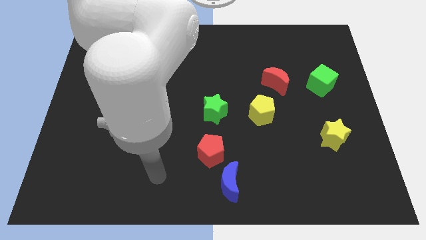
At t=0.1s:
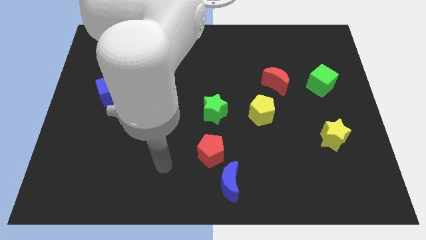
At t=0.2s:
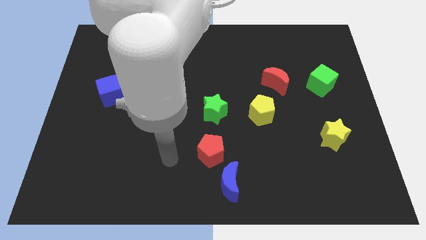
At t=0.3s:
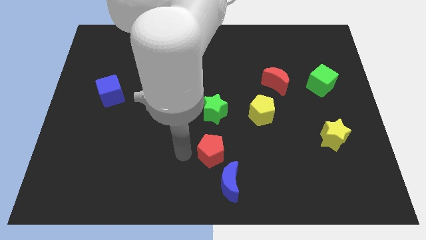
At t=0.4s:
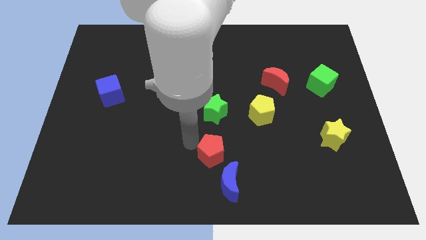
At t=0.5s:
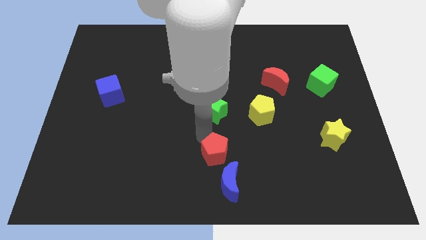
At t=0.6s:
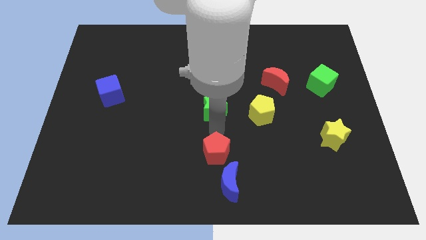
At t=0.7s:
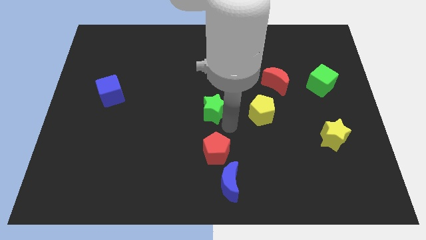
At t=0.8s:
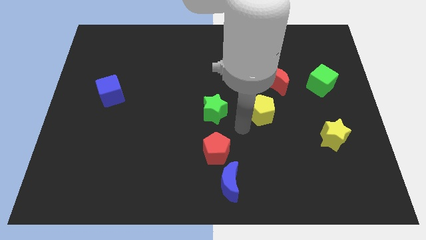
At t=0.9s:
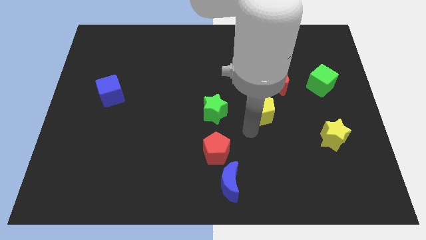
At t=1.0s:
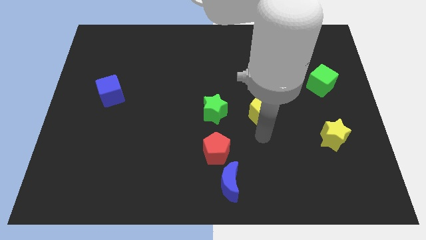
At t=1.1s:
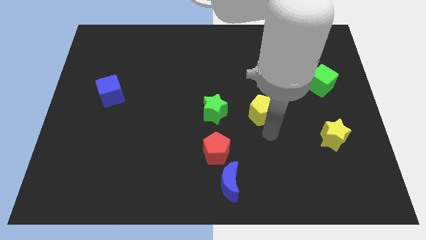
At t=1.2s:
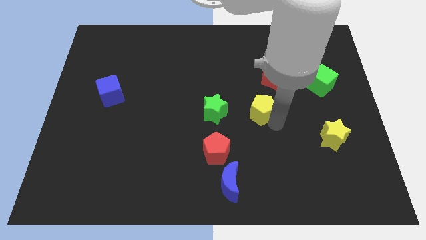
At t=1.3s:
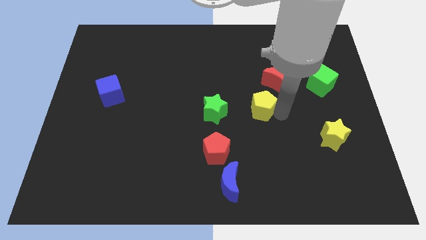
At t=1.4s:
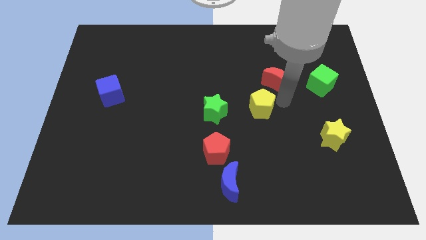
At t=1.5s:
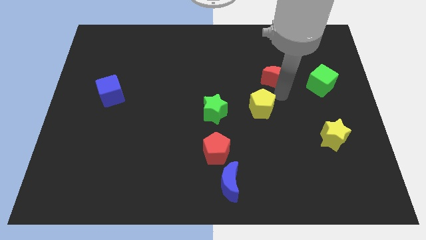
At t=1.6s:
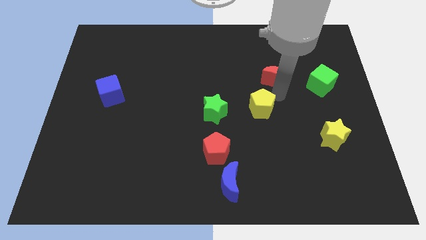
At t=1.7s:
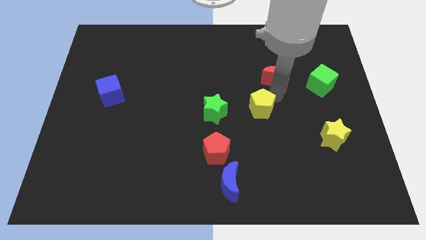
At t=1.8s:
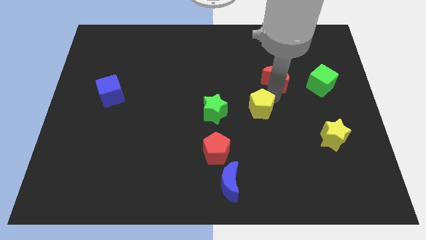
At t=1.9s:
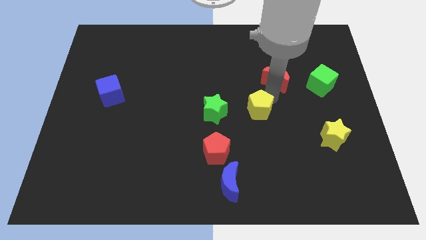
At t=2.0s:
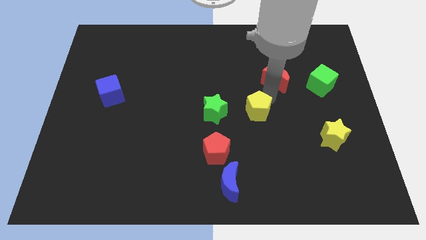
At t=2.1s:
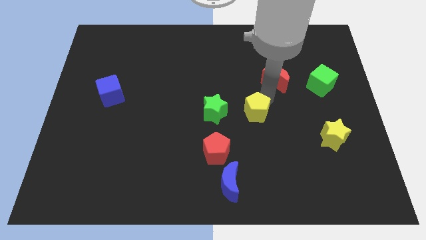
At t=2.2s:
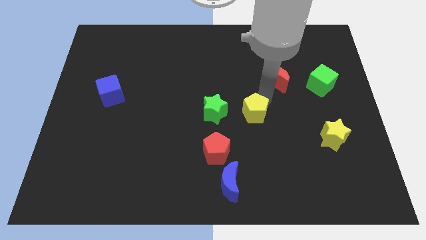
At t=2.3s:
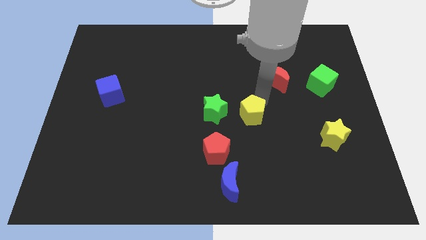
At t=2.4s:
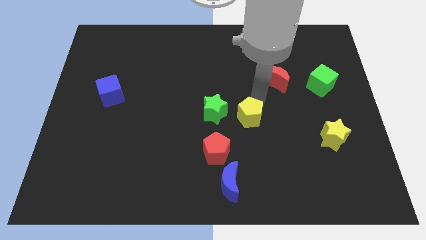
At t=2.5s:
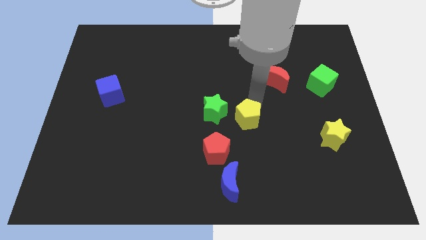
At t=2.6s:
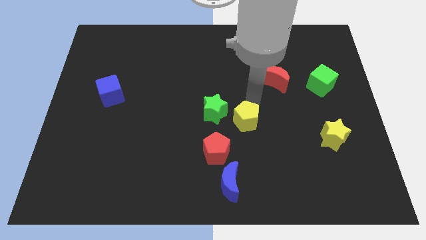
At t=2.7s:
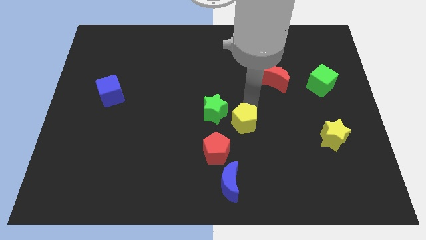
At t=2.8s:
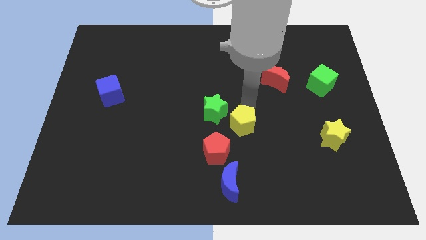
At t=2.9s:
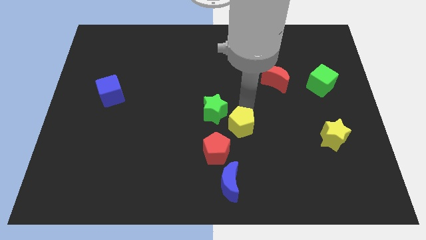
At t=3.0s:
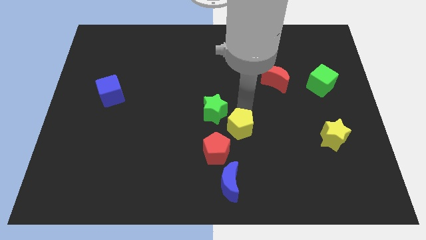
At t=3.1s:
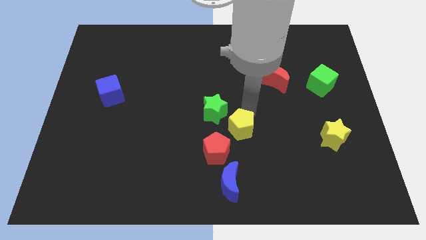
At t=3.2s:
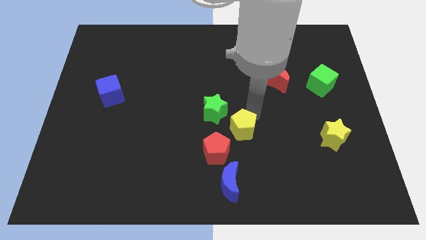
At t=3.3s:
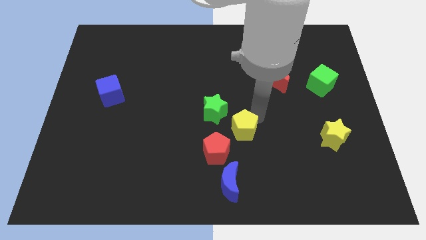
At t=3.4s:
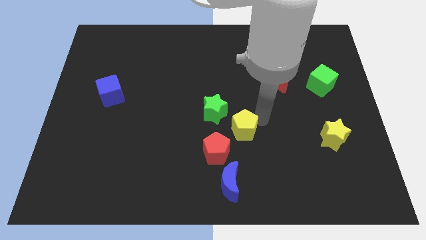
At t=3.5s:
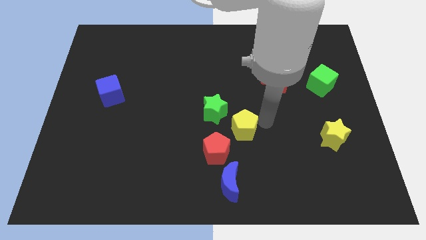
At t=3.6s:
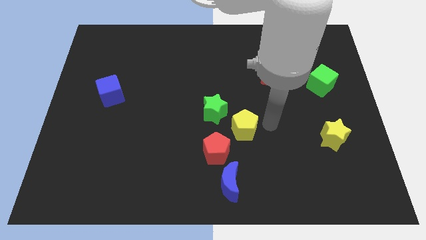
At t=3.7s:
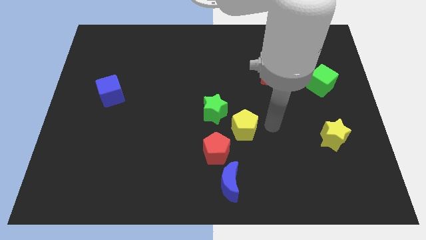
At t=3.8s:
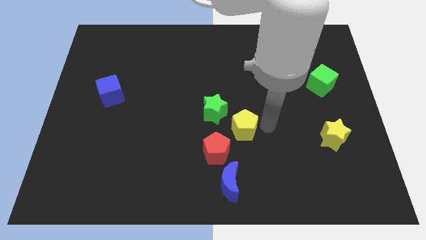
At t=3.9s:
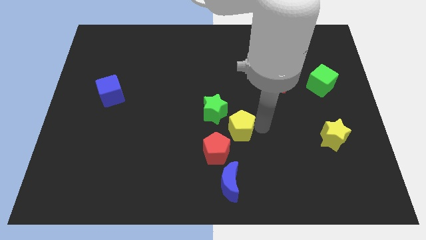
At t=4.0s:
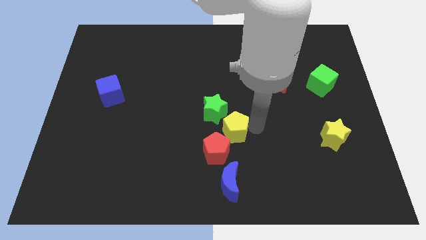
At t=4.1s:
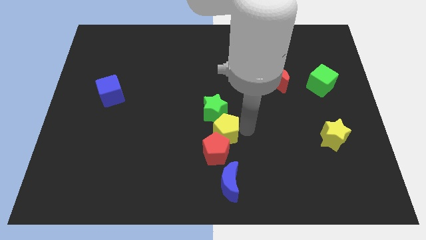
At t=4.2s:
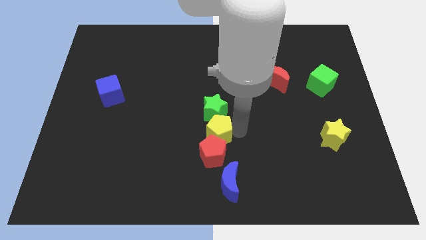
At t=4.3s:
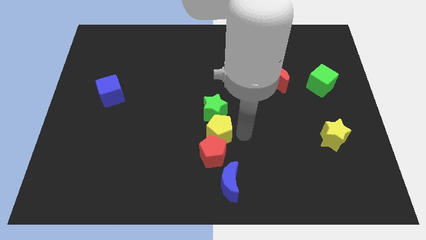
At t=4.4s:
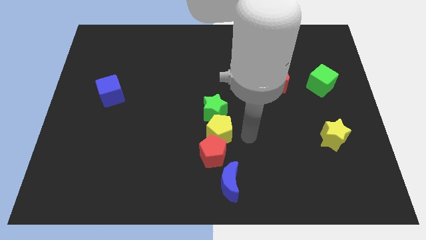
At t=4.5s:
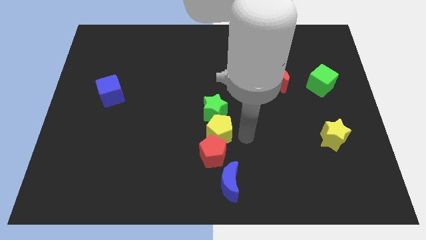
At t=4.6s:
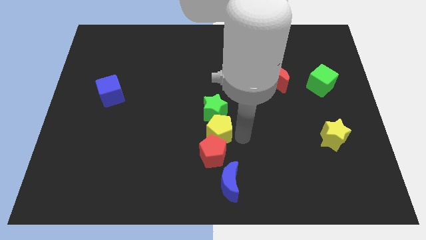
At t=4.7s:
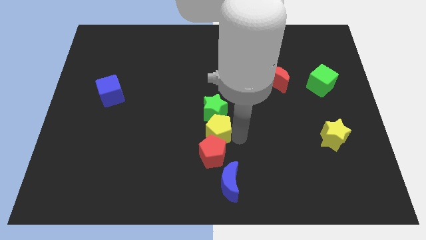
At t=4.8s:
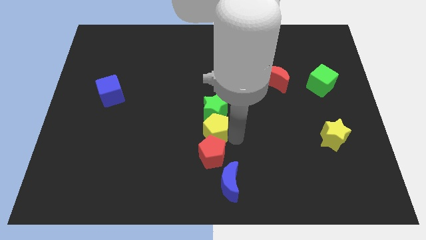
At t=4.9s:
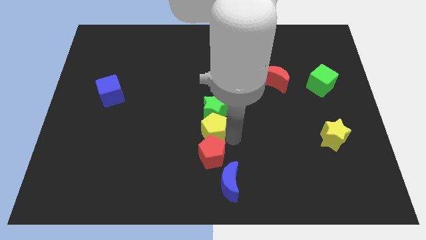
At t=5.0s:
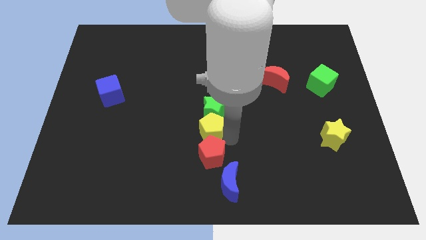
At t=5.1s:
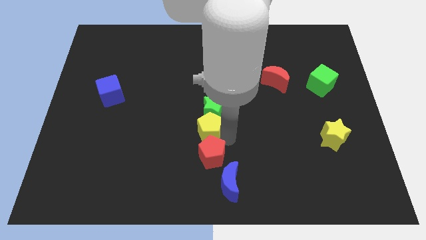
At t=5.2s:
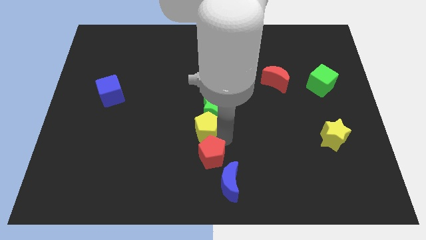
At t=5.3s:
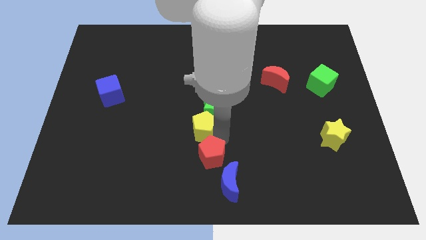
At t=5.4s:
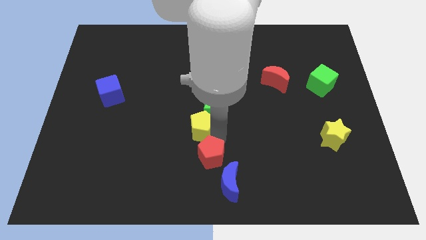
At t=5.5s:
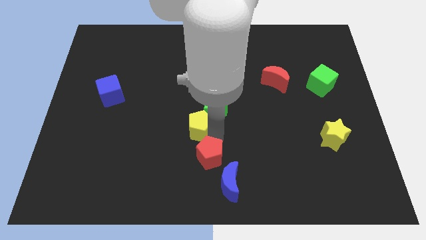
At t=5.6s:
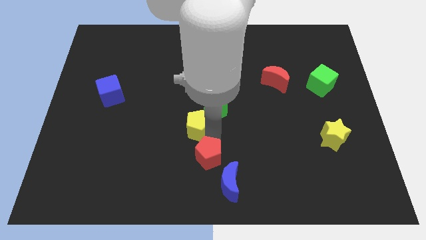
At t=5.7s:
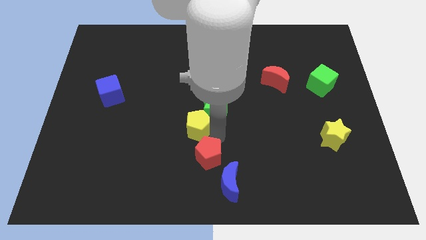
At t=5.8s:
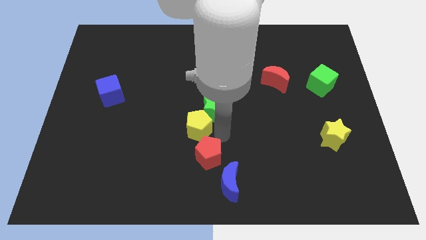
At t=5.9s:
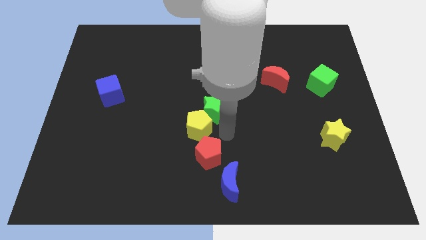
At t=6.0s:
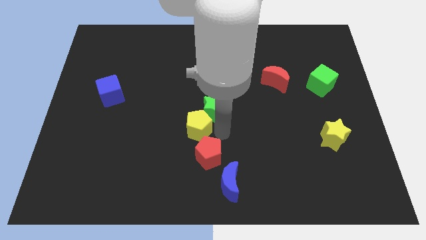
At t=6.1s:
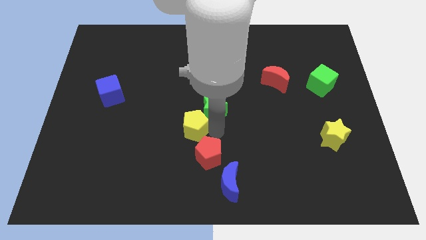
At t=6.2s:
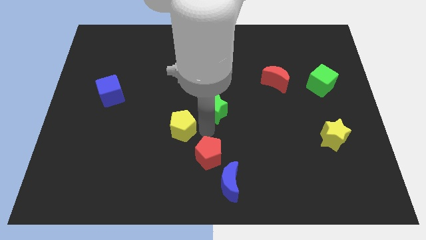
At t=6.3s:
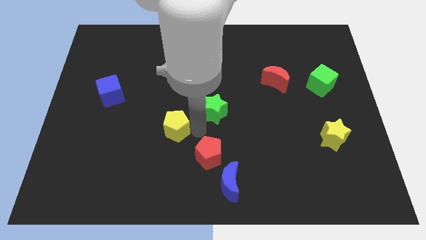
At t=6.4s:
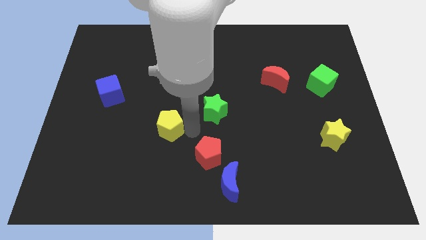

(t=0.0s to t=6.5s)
move the yellow pentagon left

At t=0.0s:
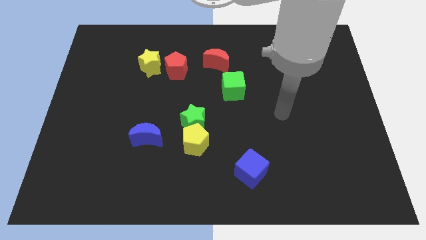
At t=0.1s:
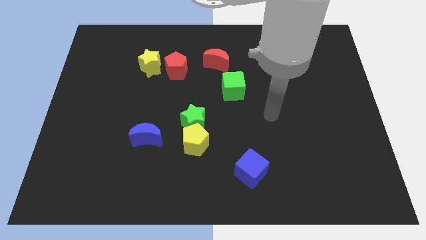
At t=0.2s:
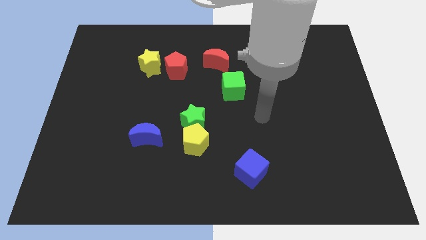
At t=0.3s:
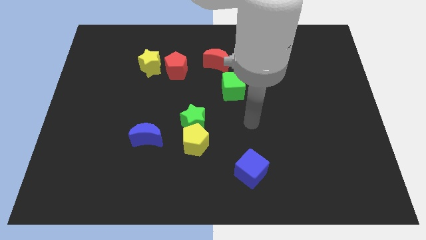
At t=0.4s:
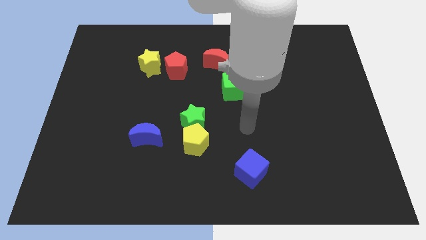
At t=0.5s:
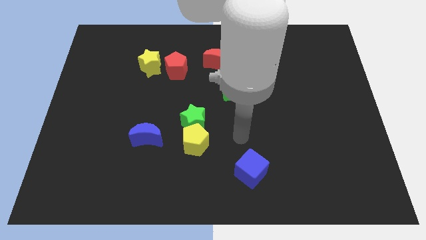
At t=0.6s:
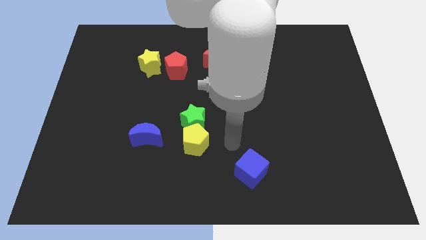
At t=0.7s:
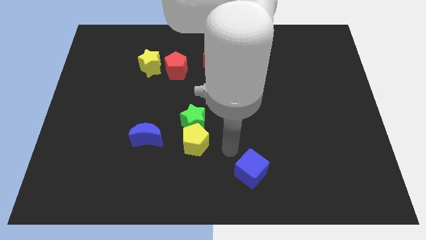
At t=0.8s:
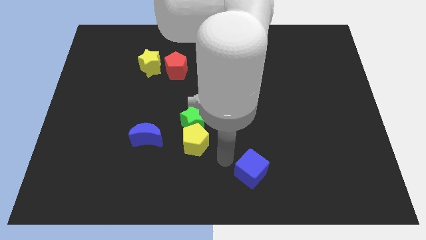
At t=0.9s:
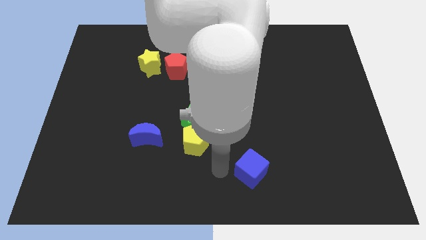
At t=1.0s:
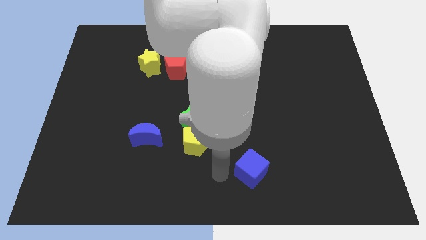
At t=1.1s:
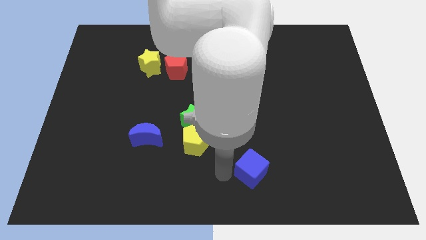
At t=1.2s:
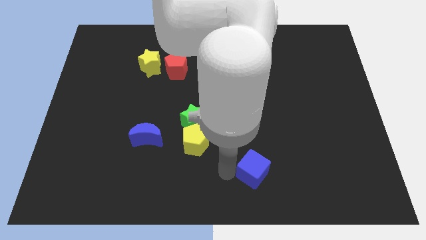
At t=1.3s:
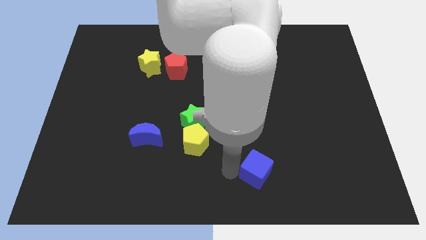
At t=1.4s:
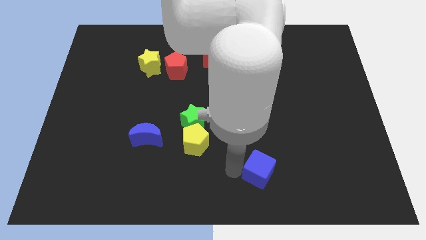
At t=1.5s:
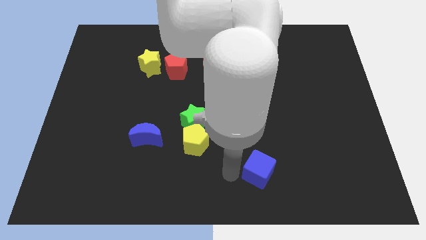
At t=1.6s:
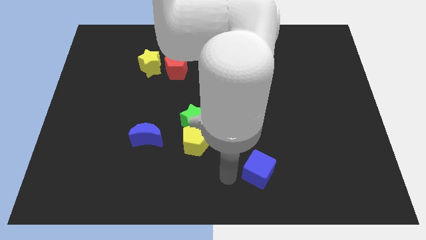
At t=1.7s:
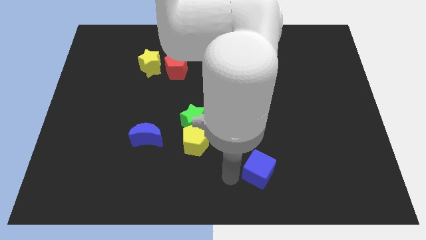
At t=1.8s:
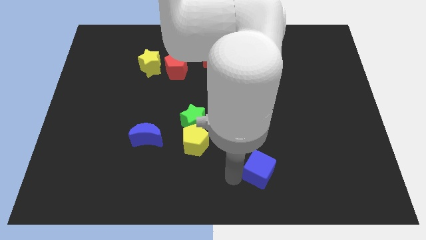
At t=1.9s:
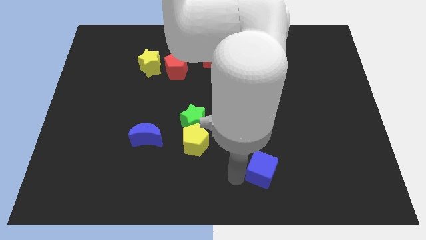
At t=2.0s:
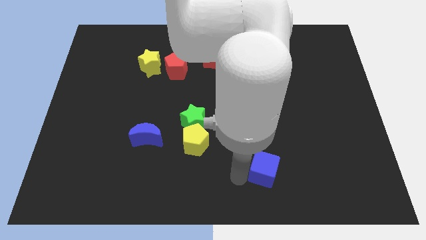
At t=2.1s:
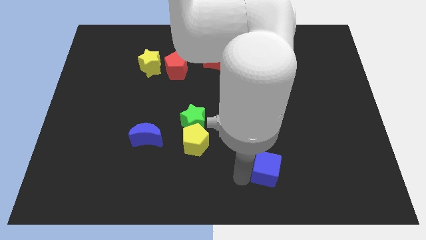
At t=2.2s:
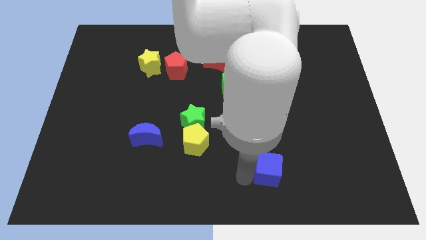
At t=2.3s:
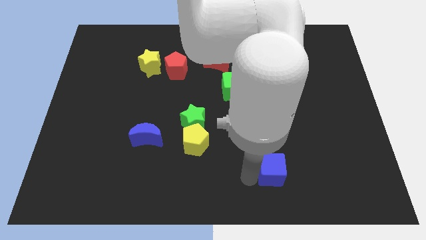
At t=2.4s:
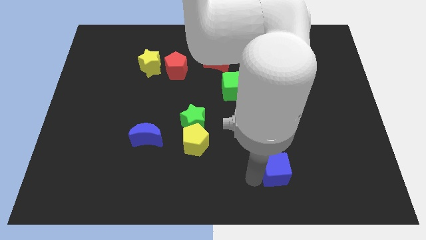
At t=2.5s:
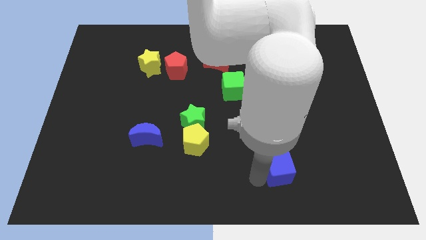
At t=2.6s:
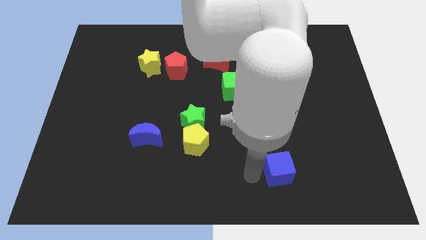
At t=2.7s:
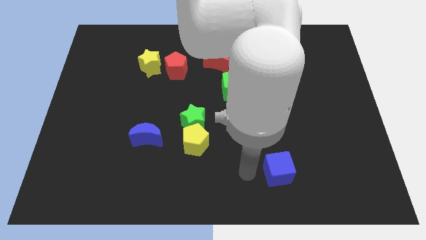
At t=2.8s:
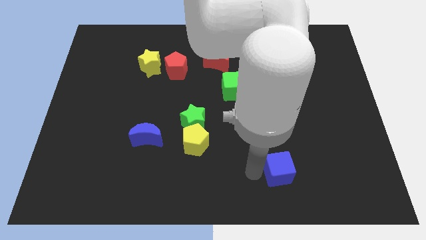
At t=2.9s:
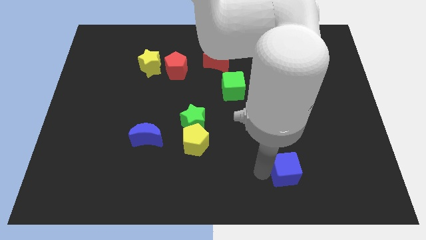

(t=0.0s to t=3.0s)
slide the blue cube somewhat right
